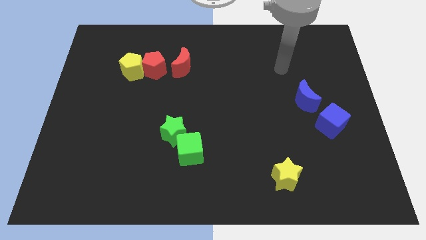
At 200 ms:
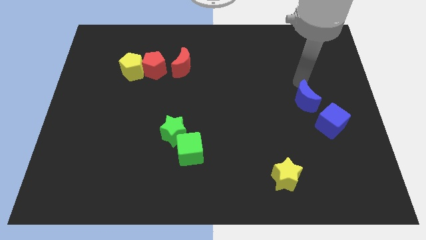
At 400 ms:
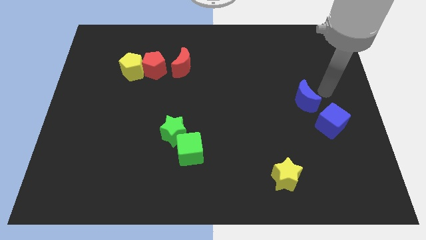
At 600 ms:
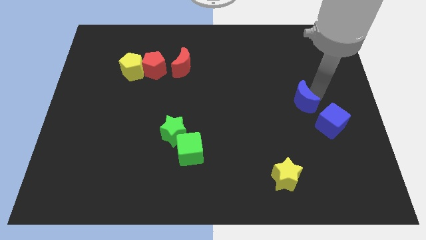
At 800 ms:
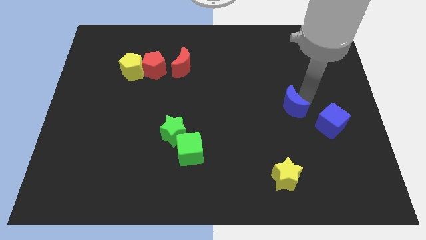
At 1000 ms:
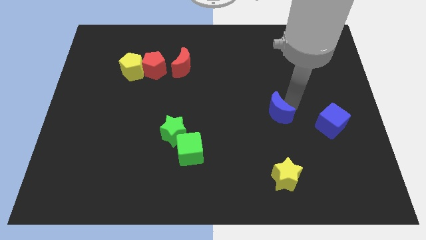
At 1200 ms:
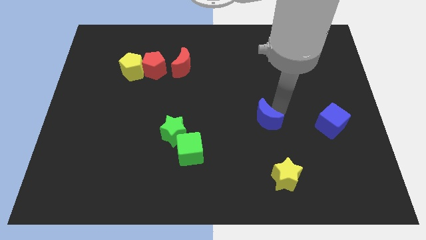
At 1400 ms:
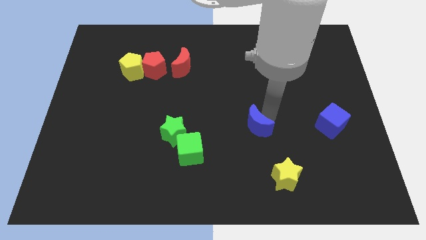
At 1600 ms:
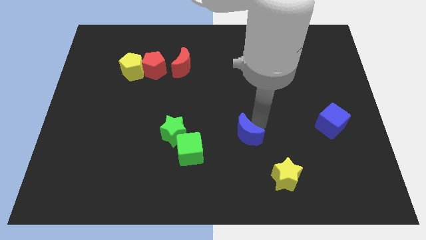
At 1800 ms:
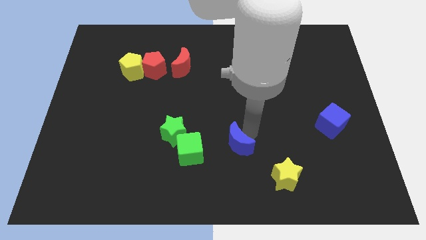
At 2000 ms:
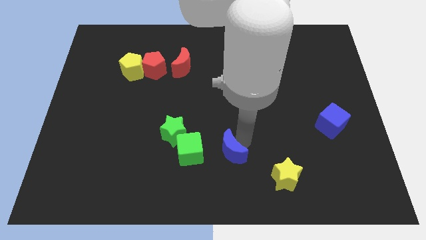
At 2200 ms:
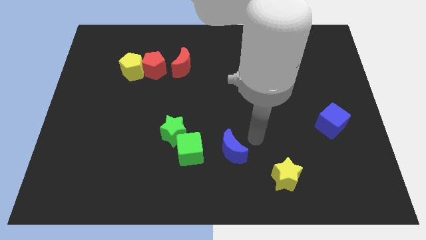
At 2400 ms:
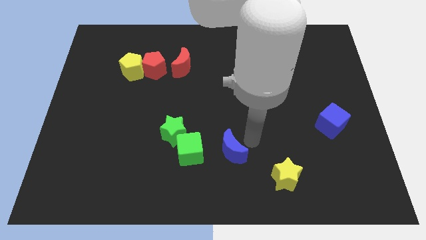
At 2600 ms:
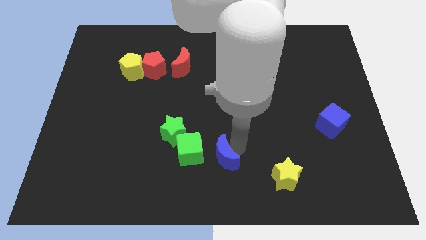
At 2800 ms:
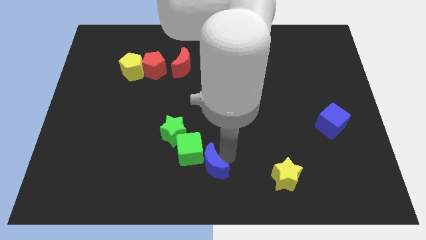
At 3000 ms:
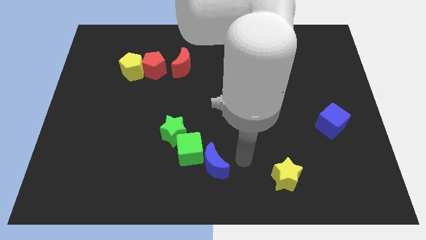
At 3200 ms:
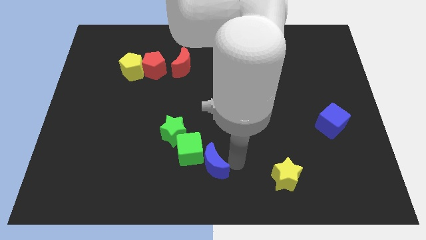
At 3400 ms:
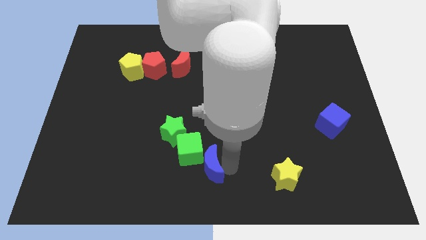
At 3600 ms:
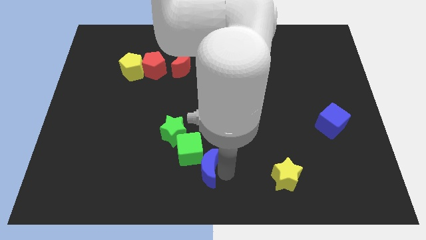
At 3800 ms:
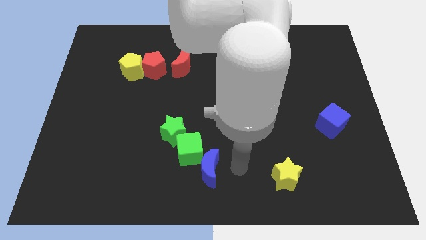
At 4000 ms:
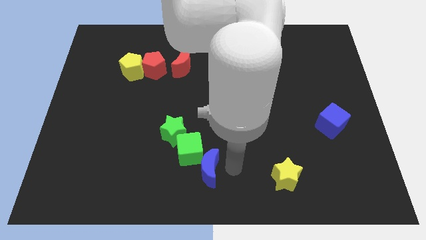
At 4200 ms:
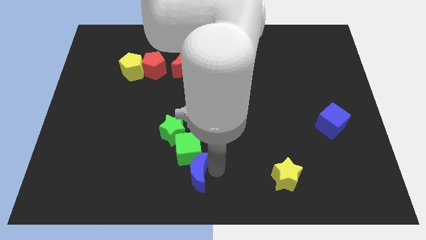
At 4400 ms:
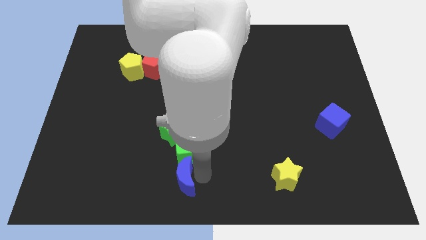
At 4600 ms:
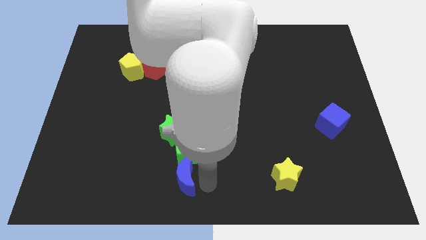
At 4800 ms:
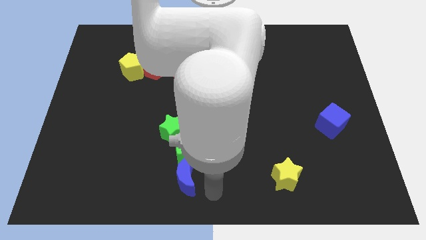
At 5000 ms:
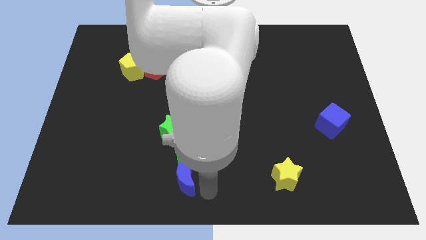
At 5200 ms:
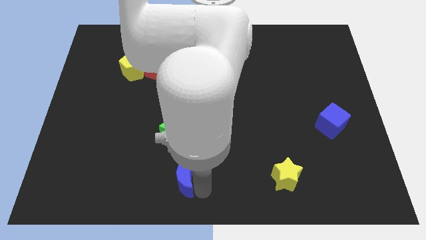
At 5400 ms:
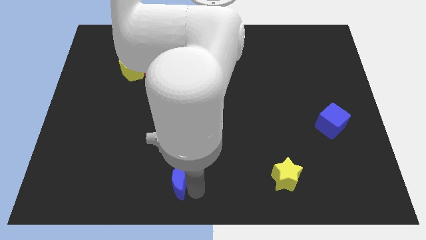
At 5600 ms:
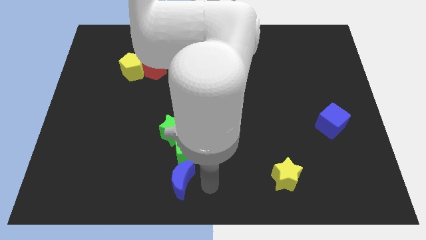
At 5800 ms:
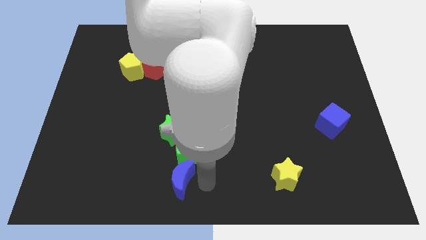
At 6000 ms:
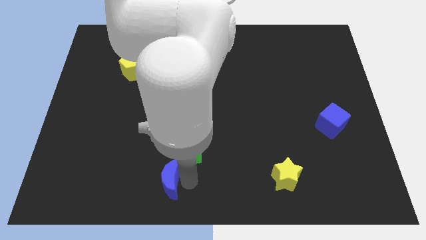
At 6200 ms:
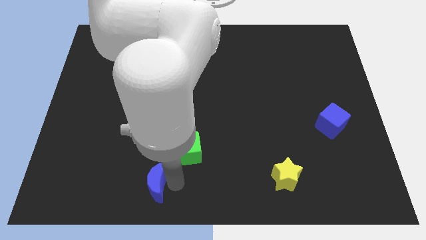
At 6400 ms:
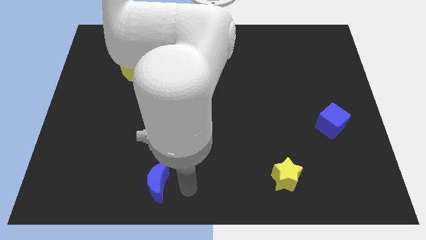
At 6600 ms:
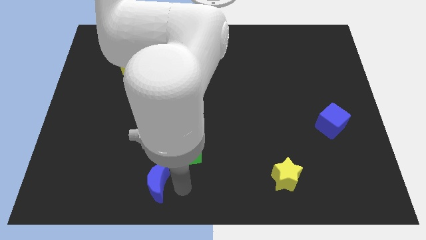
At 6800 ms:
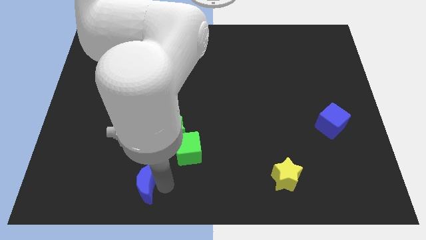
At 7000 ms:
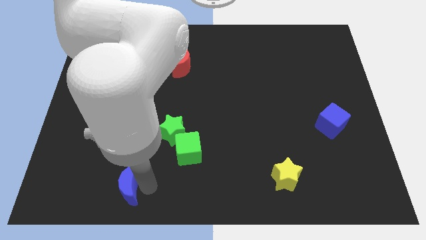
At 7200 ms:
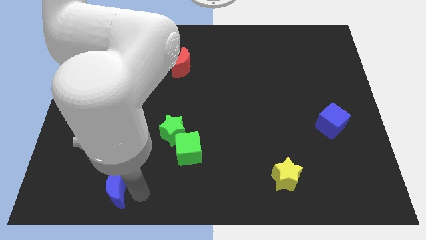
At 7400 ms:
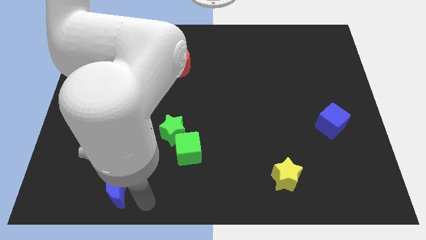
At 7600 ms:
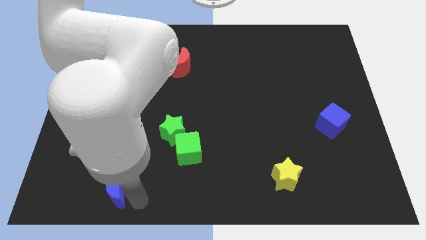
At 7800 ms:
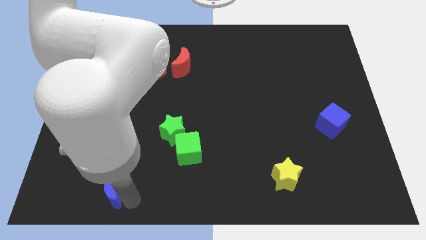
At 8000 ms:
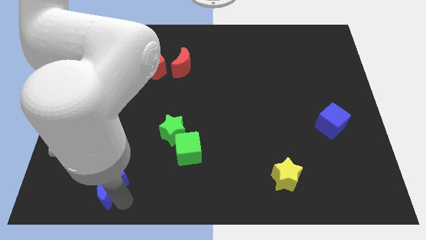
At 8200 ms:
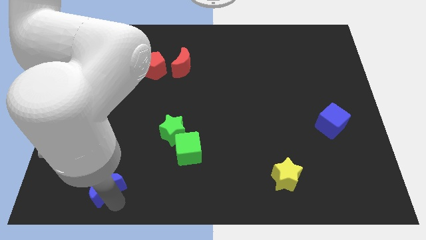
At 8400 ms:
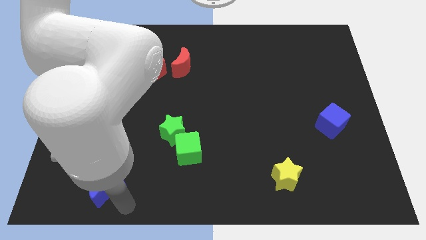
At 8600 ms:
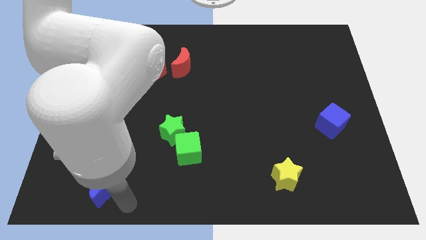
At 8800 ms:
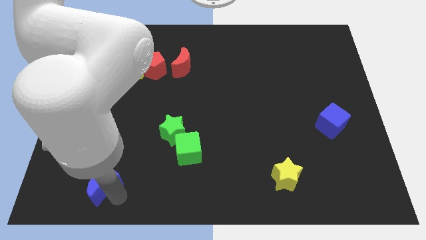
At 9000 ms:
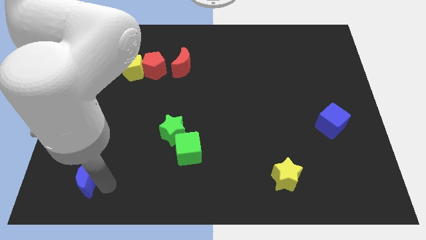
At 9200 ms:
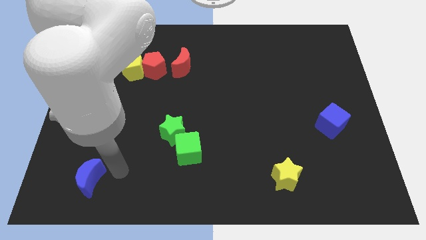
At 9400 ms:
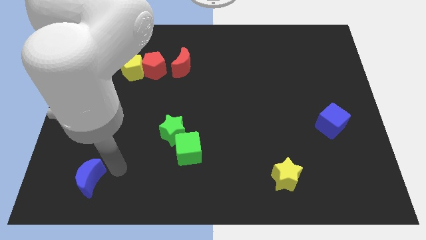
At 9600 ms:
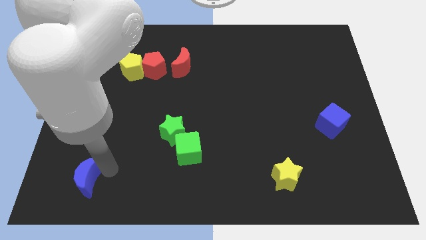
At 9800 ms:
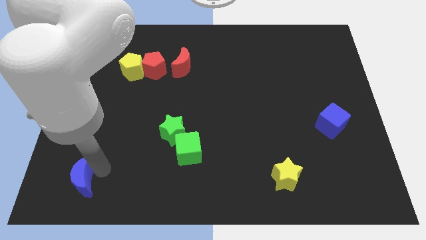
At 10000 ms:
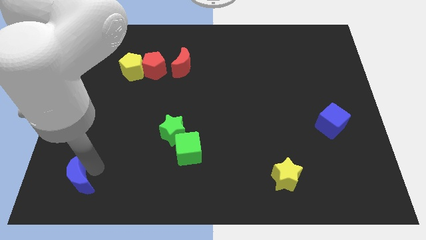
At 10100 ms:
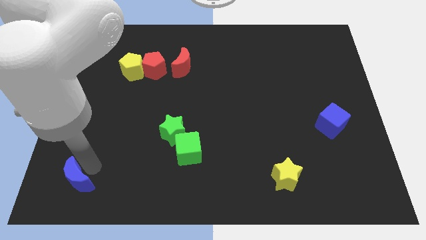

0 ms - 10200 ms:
push the blue moon to the bottom left of the board

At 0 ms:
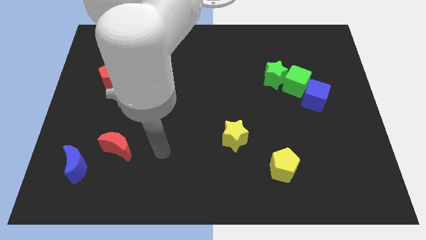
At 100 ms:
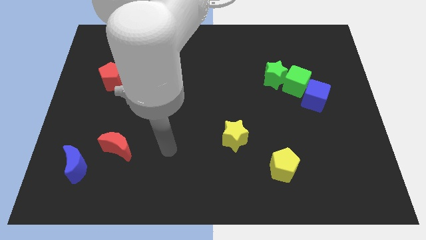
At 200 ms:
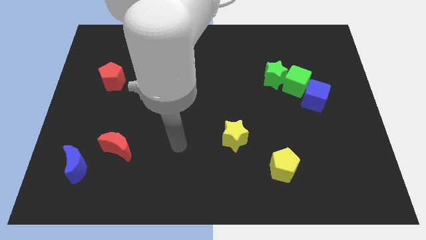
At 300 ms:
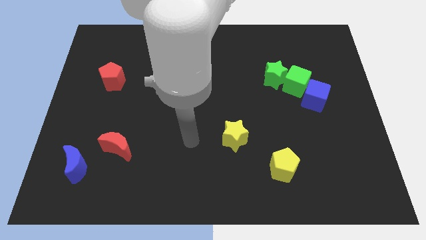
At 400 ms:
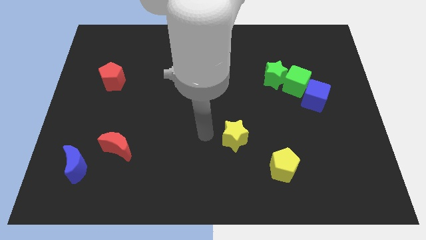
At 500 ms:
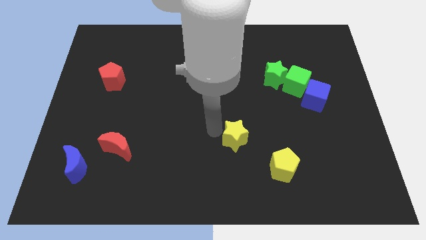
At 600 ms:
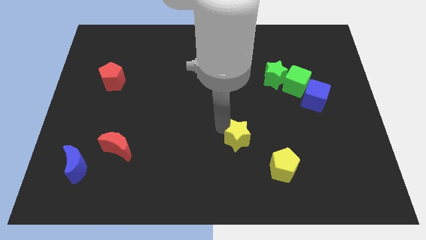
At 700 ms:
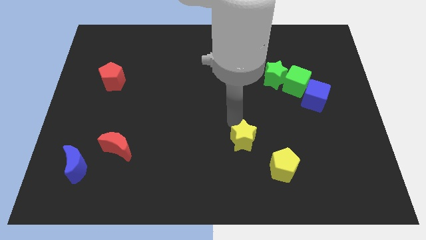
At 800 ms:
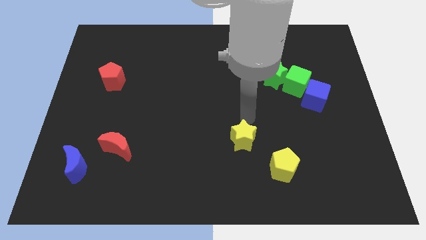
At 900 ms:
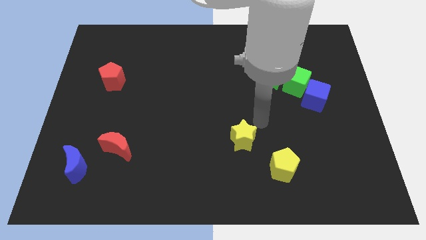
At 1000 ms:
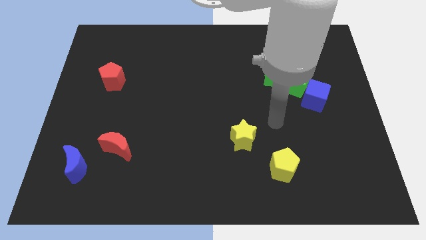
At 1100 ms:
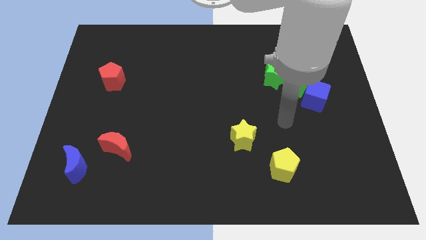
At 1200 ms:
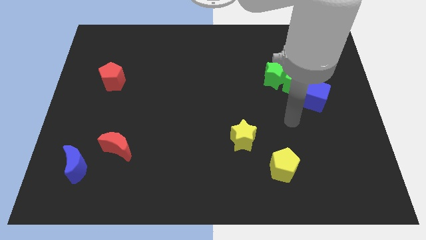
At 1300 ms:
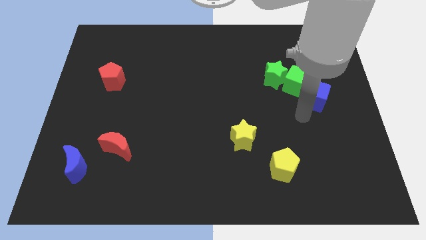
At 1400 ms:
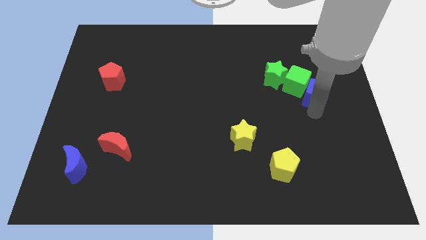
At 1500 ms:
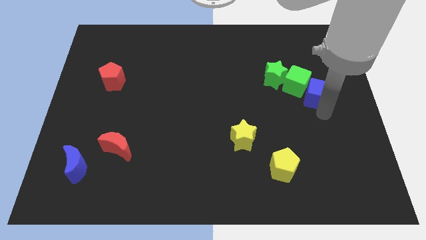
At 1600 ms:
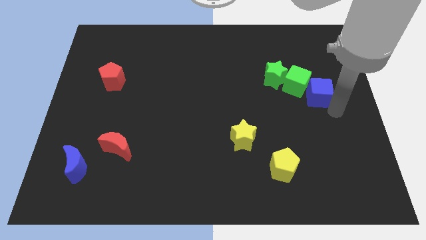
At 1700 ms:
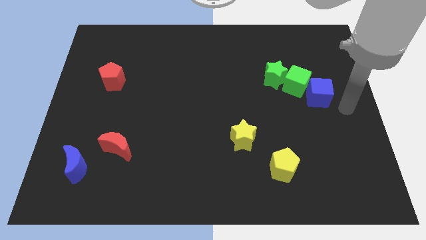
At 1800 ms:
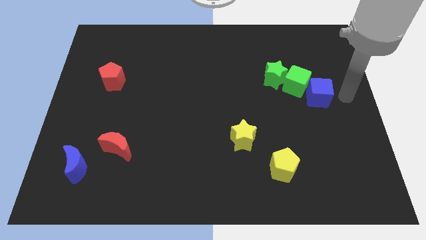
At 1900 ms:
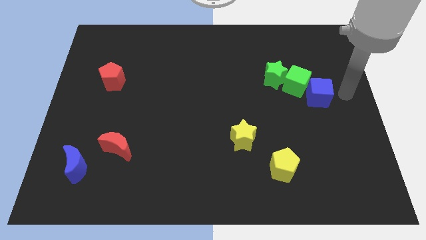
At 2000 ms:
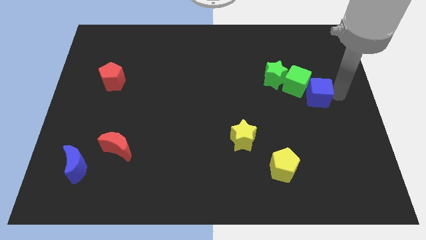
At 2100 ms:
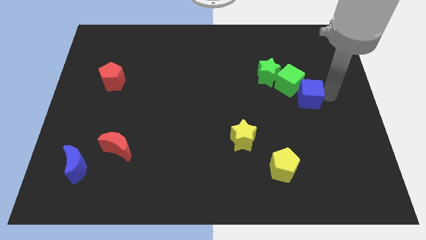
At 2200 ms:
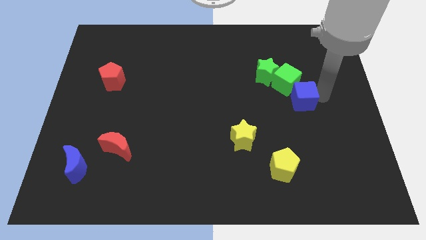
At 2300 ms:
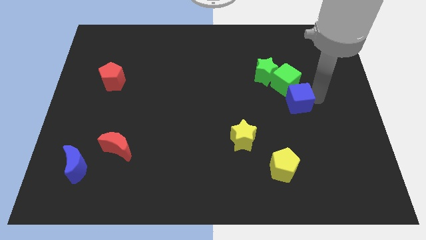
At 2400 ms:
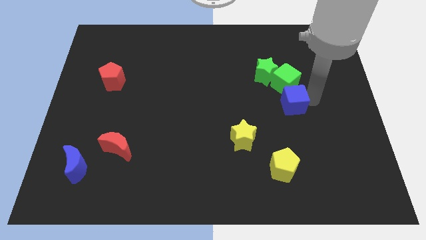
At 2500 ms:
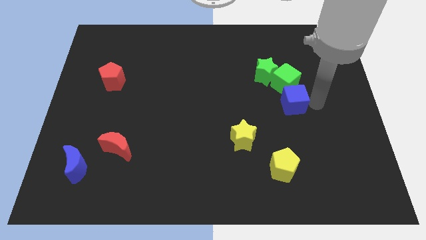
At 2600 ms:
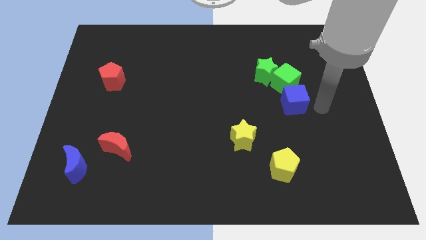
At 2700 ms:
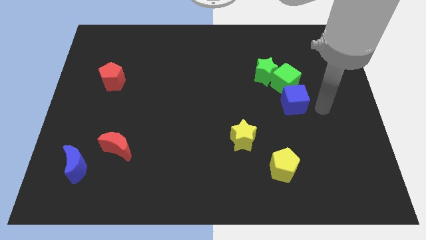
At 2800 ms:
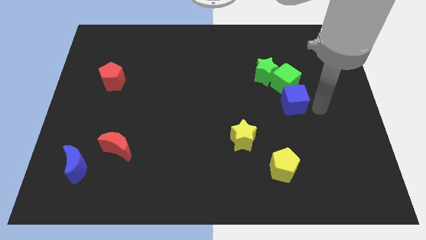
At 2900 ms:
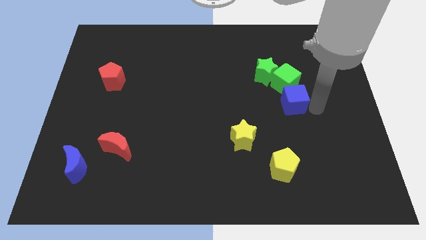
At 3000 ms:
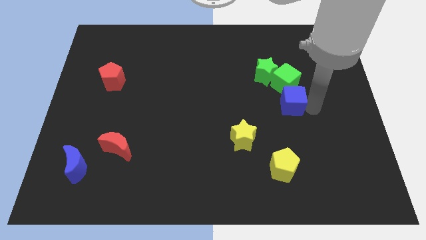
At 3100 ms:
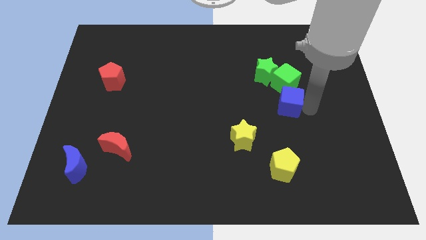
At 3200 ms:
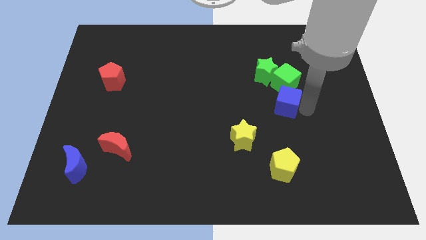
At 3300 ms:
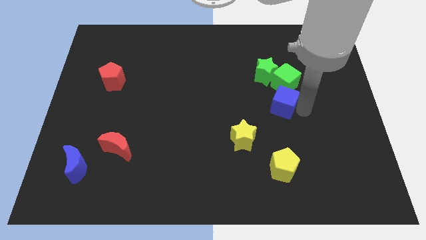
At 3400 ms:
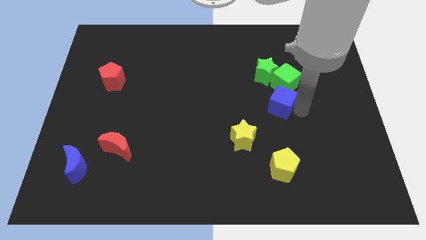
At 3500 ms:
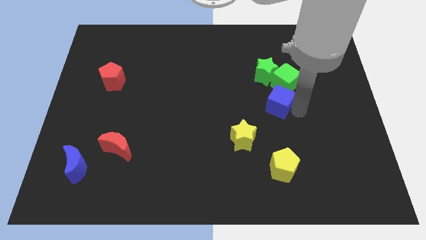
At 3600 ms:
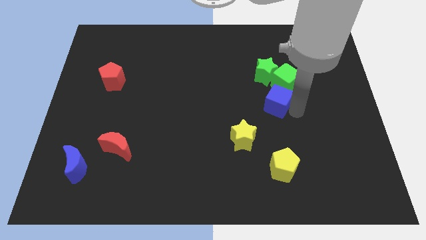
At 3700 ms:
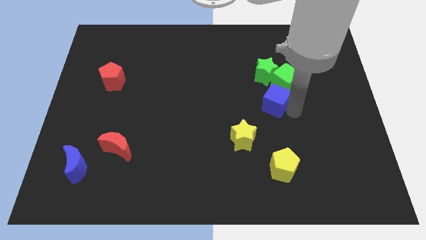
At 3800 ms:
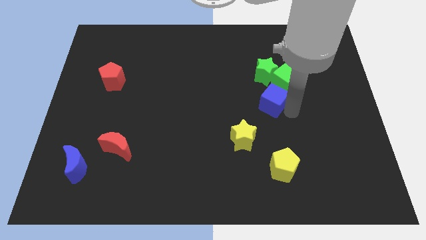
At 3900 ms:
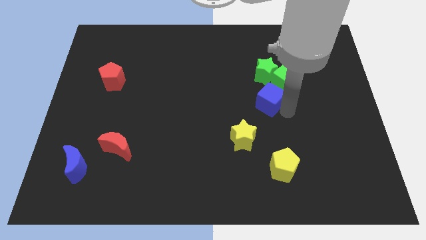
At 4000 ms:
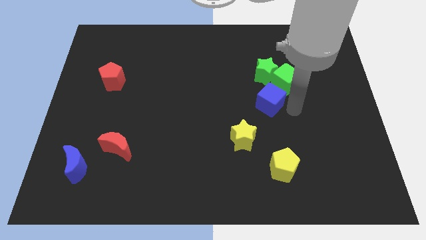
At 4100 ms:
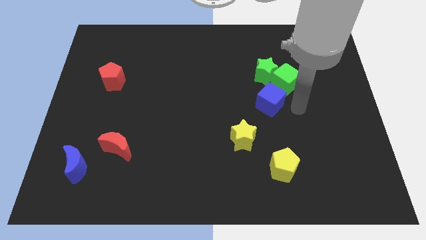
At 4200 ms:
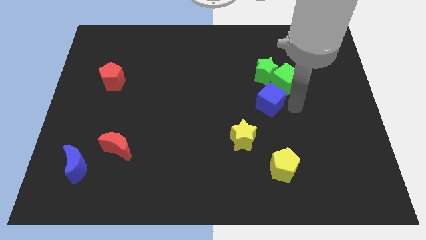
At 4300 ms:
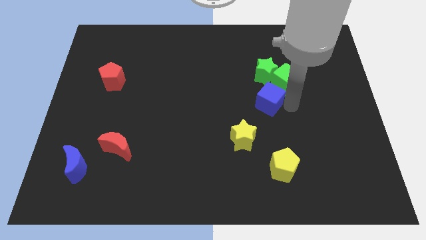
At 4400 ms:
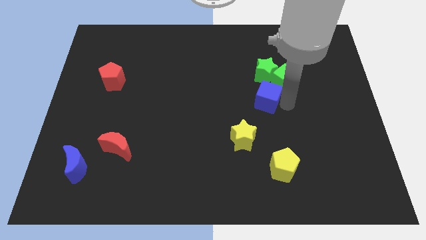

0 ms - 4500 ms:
push the blue cube to the middle
